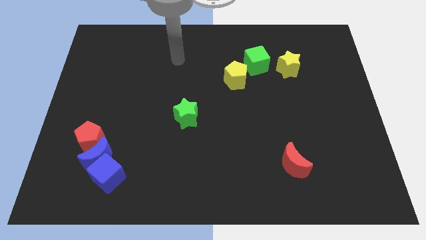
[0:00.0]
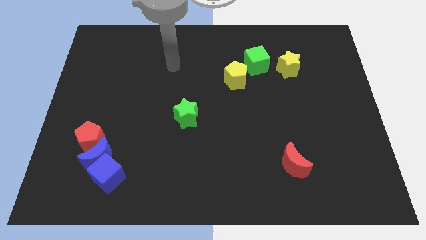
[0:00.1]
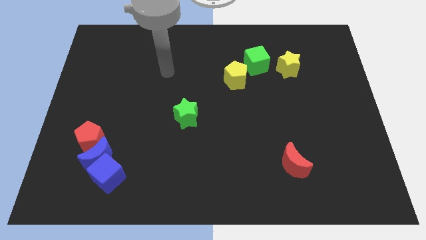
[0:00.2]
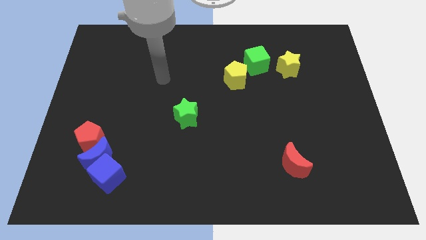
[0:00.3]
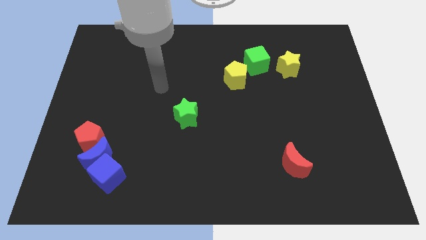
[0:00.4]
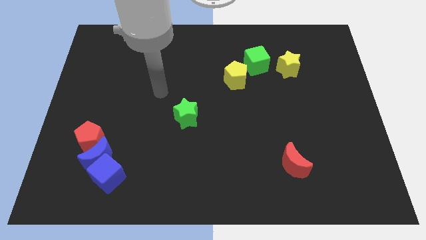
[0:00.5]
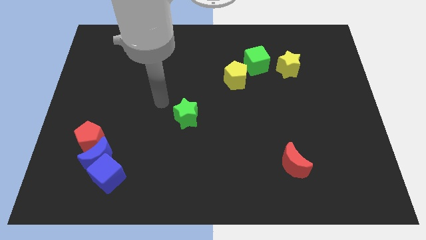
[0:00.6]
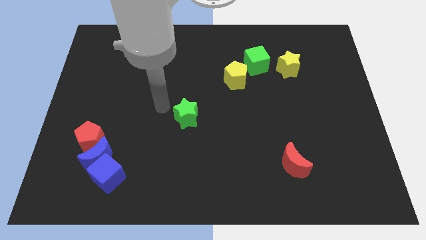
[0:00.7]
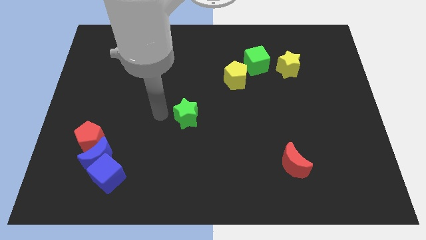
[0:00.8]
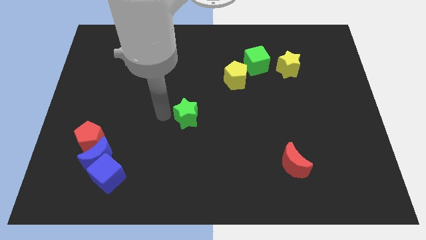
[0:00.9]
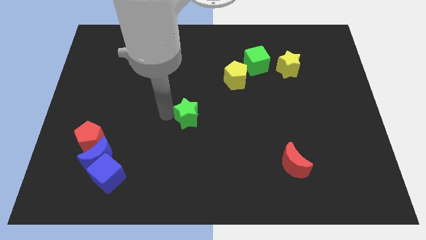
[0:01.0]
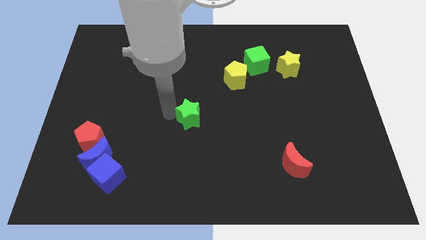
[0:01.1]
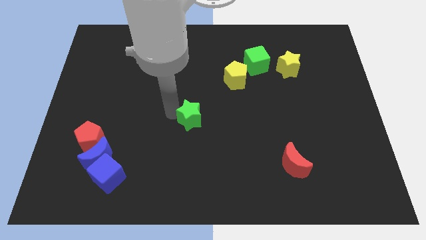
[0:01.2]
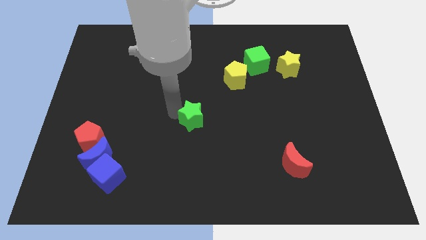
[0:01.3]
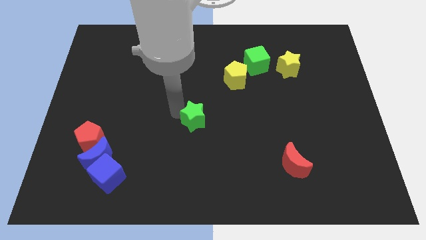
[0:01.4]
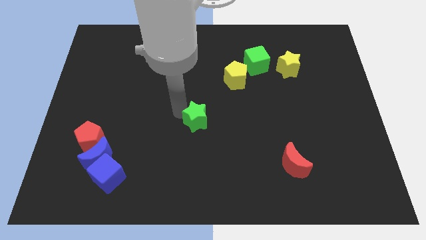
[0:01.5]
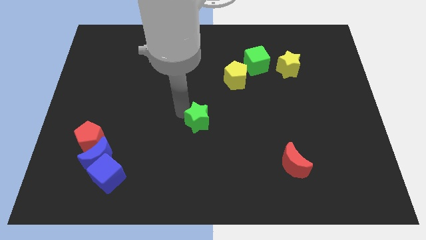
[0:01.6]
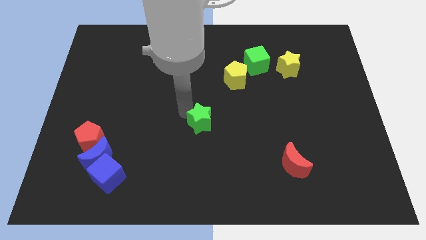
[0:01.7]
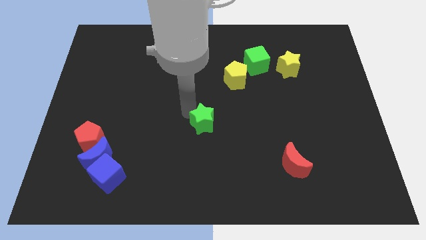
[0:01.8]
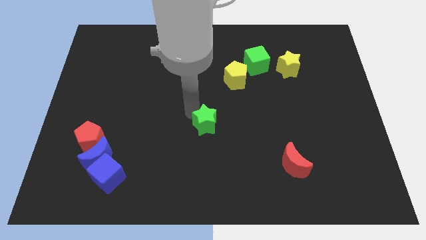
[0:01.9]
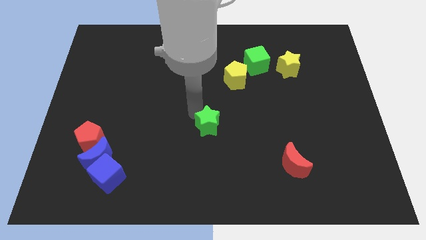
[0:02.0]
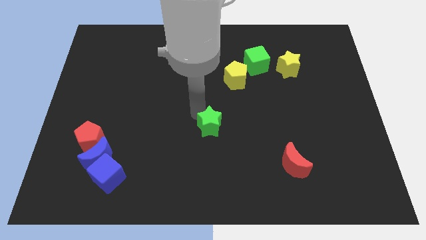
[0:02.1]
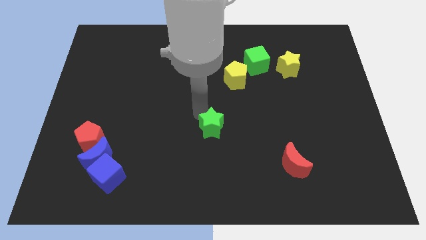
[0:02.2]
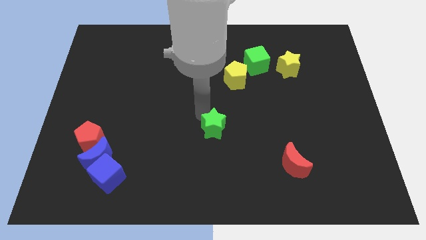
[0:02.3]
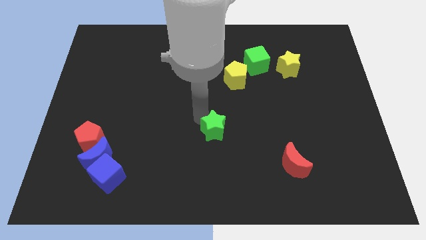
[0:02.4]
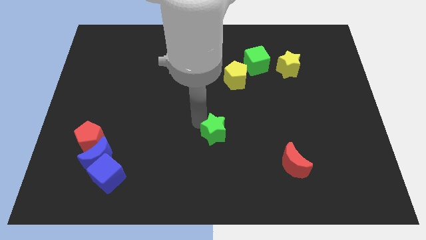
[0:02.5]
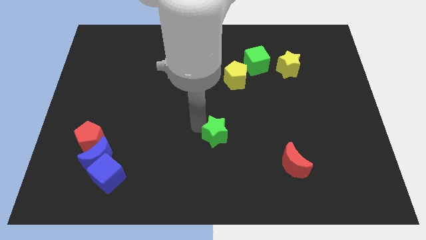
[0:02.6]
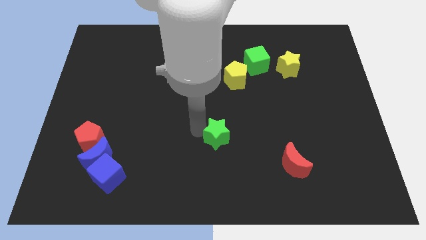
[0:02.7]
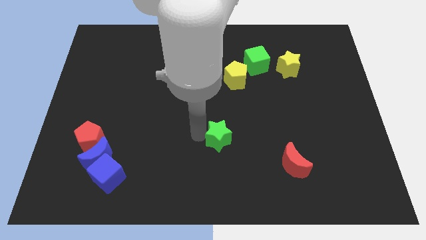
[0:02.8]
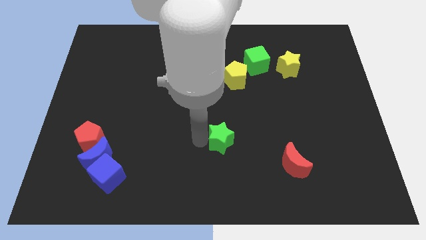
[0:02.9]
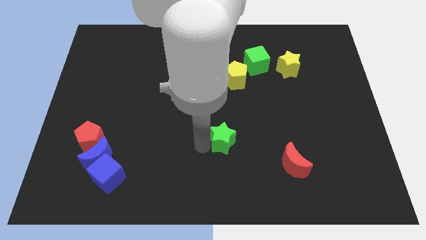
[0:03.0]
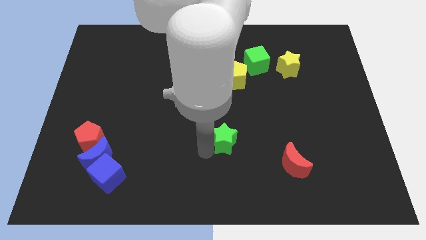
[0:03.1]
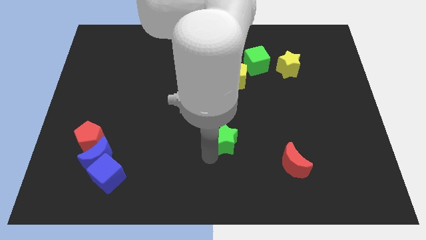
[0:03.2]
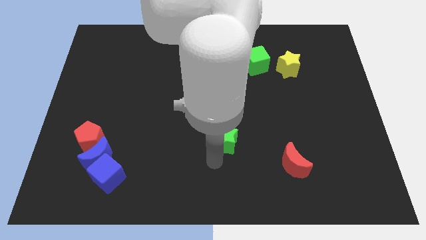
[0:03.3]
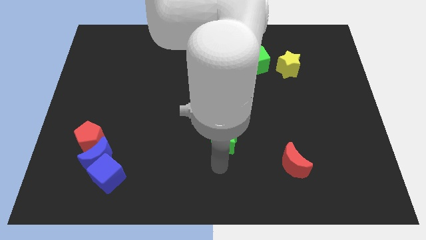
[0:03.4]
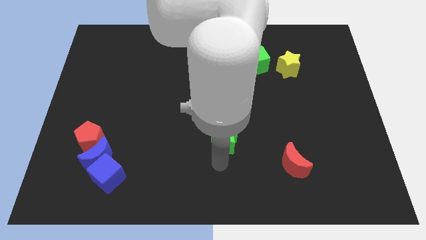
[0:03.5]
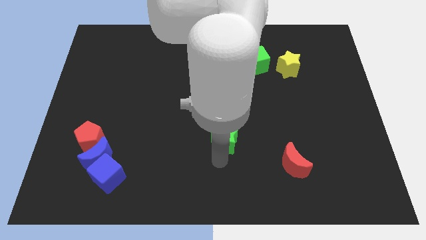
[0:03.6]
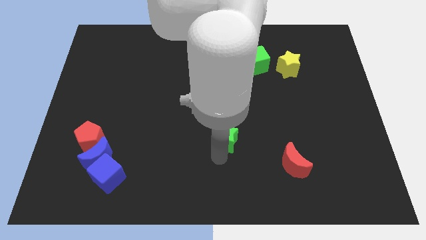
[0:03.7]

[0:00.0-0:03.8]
slide the green star a little bit right

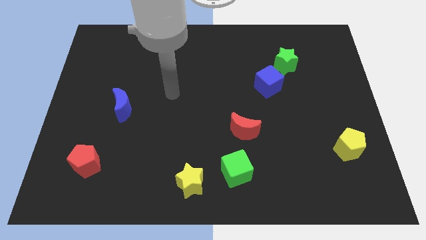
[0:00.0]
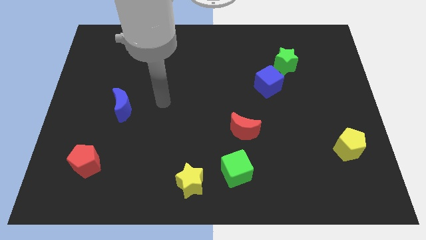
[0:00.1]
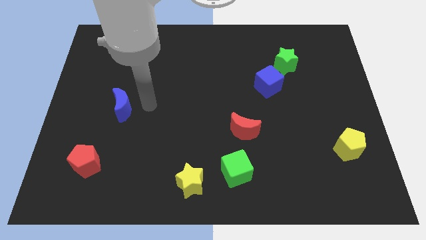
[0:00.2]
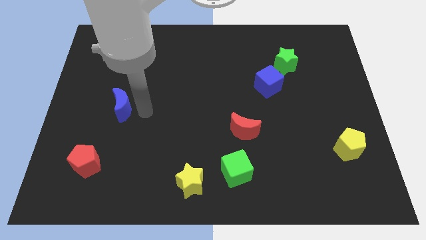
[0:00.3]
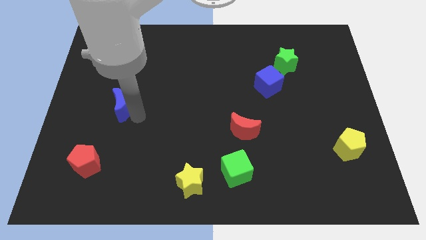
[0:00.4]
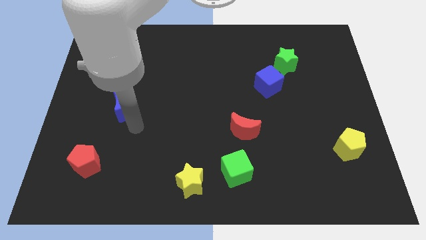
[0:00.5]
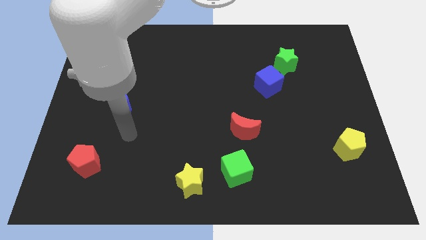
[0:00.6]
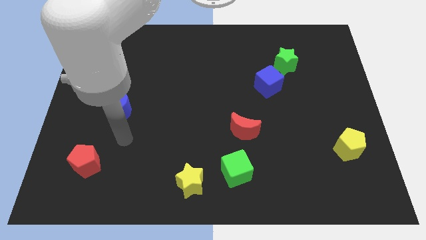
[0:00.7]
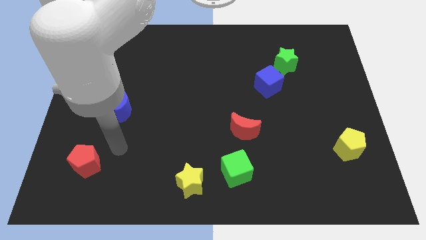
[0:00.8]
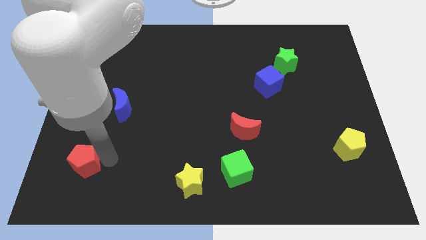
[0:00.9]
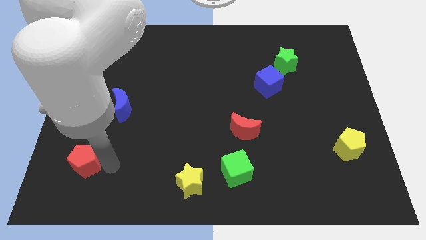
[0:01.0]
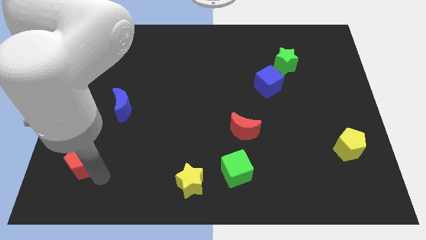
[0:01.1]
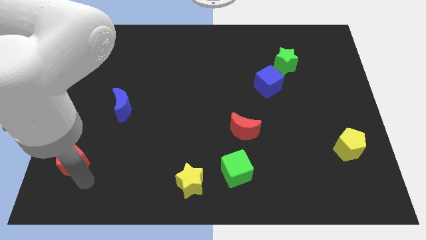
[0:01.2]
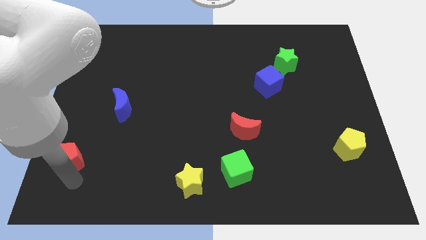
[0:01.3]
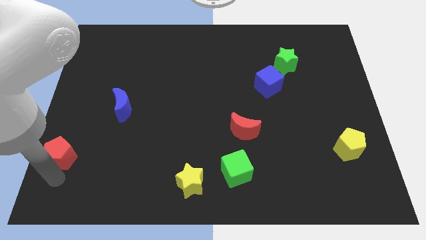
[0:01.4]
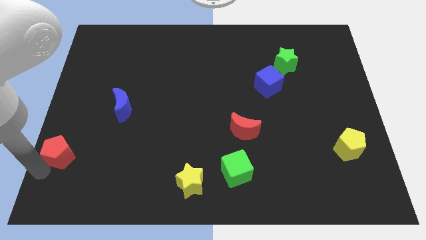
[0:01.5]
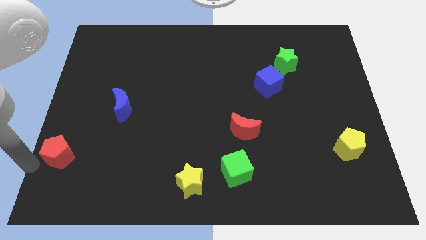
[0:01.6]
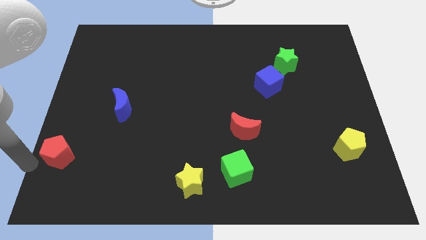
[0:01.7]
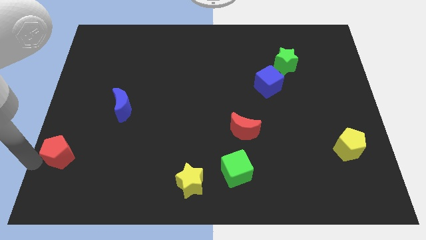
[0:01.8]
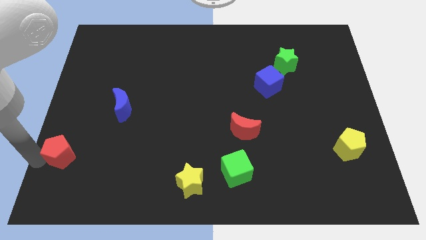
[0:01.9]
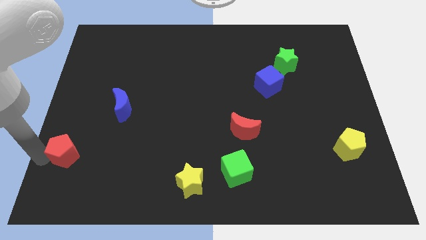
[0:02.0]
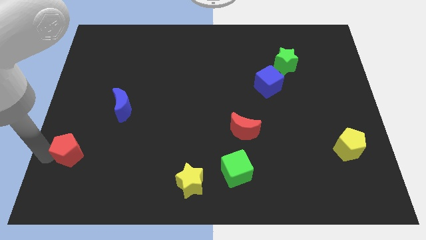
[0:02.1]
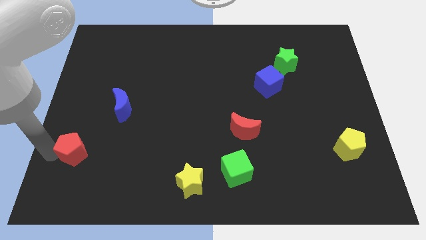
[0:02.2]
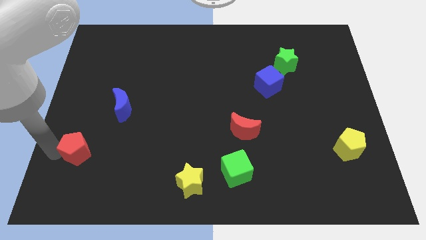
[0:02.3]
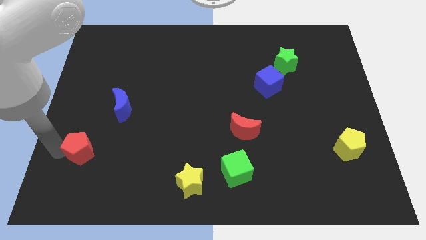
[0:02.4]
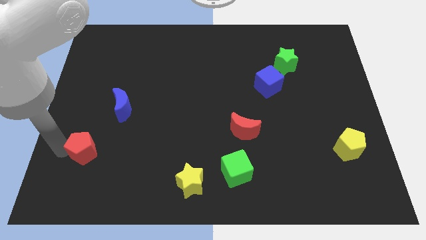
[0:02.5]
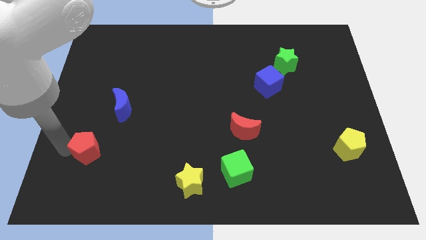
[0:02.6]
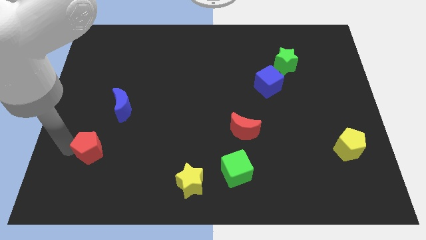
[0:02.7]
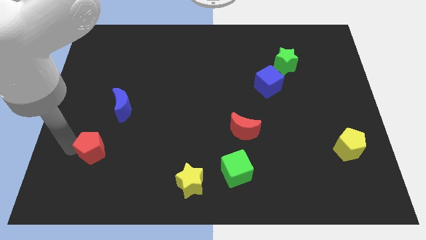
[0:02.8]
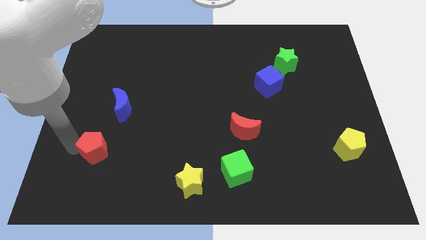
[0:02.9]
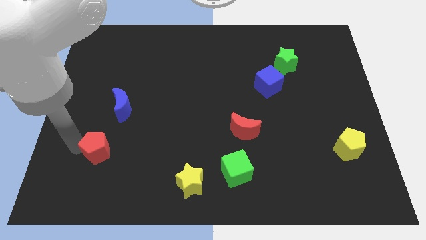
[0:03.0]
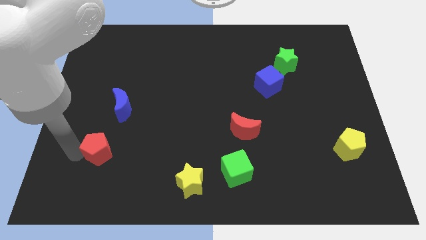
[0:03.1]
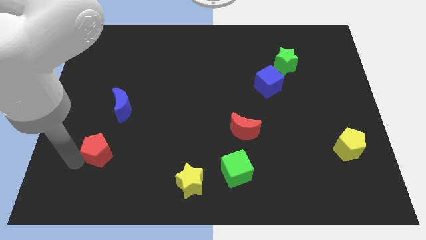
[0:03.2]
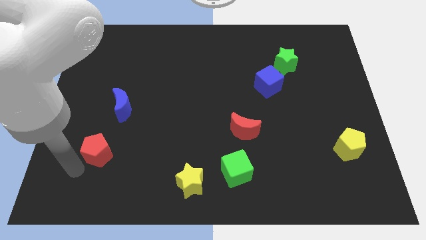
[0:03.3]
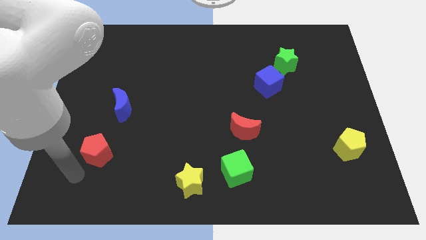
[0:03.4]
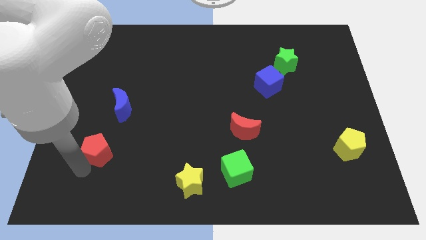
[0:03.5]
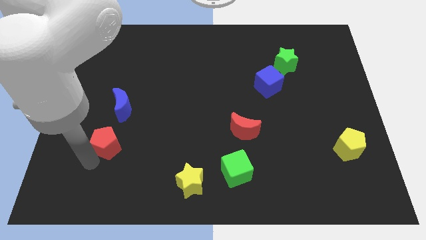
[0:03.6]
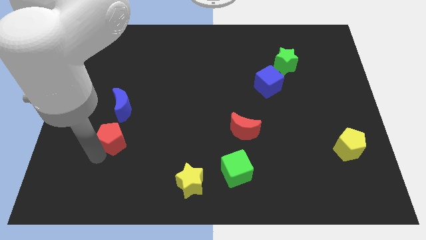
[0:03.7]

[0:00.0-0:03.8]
move the red pentagon a little up and then right

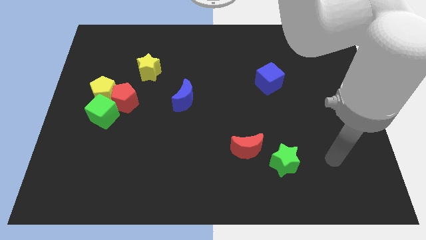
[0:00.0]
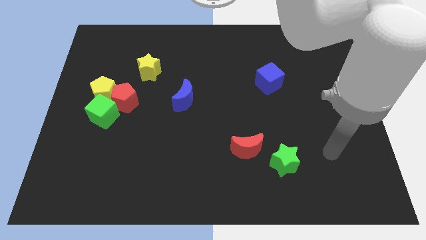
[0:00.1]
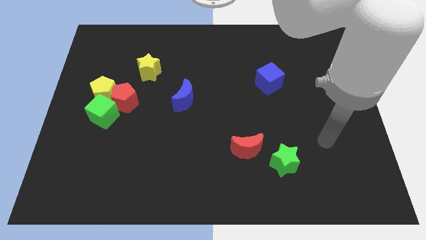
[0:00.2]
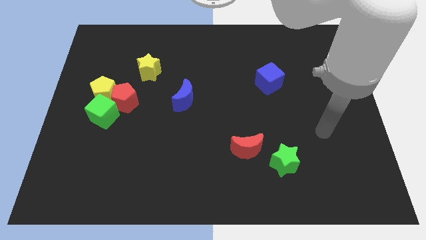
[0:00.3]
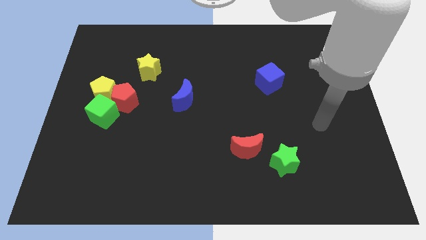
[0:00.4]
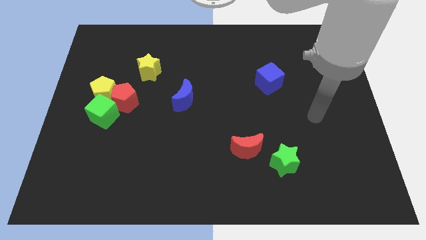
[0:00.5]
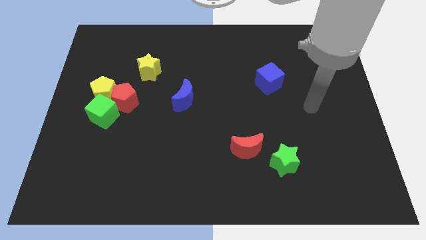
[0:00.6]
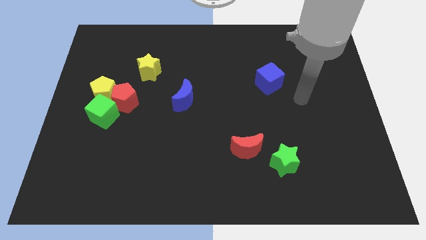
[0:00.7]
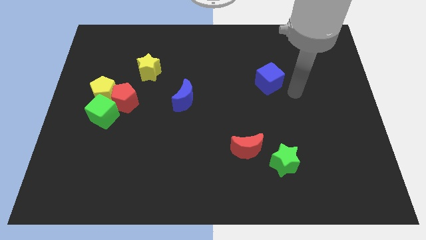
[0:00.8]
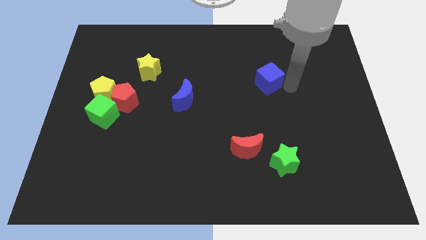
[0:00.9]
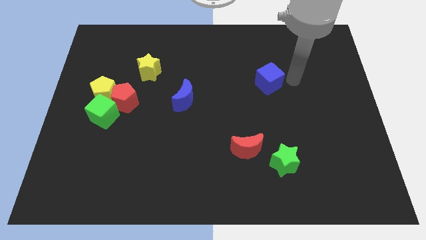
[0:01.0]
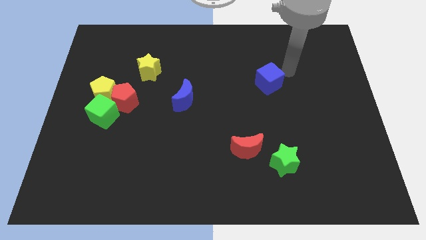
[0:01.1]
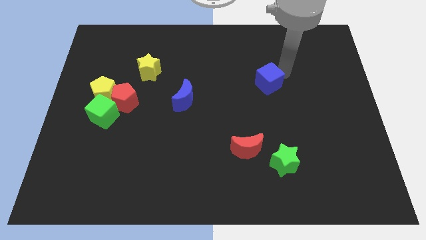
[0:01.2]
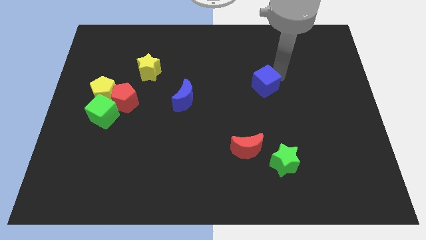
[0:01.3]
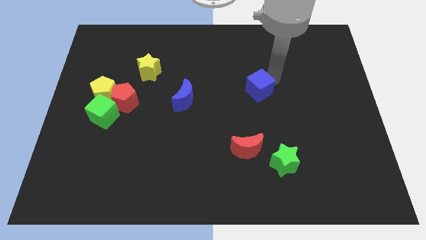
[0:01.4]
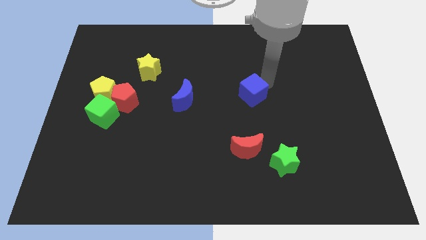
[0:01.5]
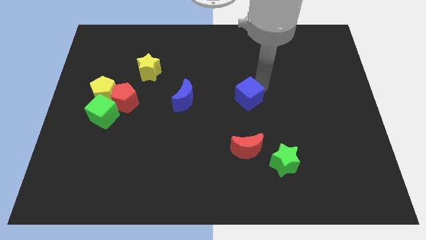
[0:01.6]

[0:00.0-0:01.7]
push the blue cube somewhat downwards and left diagonally
